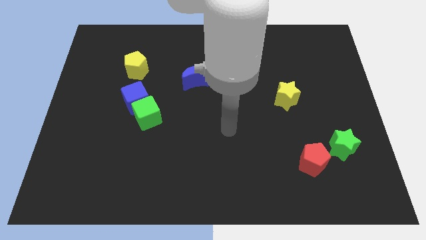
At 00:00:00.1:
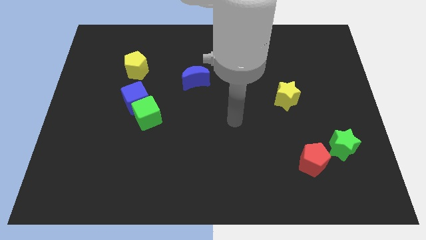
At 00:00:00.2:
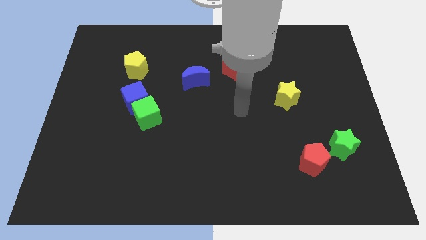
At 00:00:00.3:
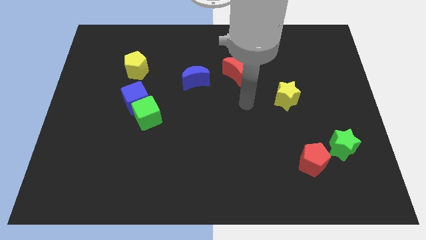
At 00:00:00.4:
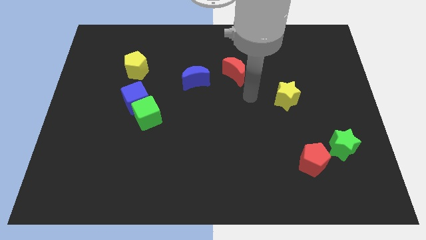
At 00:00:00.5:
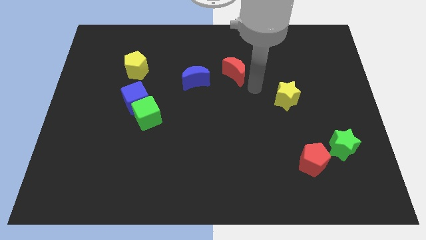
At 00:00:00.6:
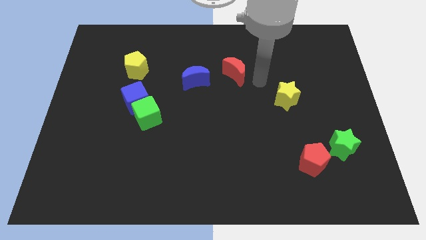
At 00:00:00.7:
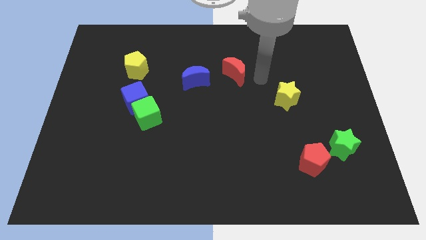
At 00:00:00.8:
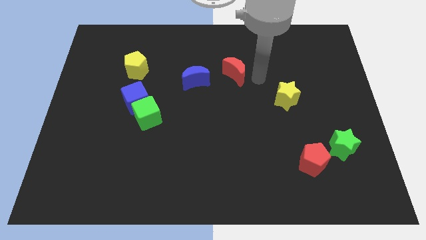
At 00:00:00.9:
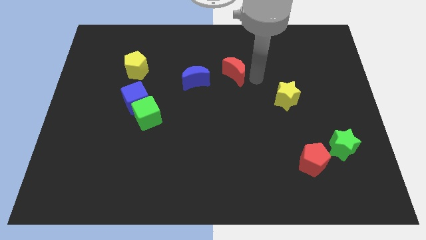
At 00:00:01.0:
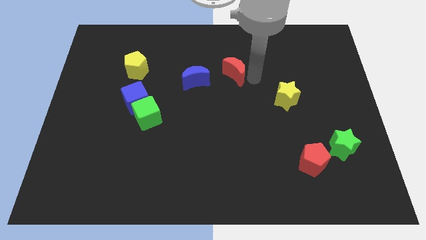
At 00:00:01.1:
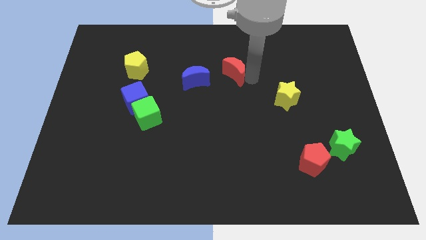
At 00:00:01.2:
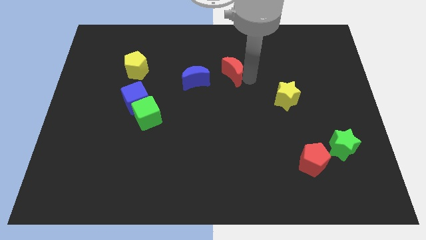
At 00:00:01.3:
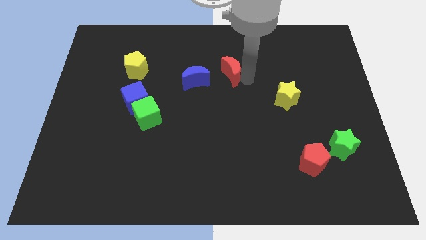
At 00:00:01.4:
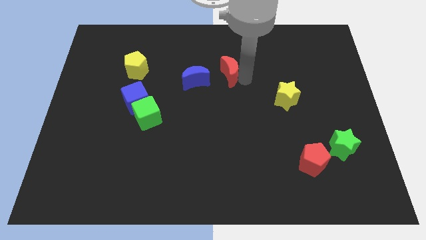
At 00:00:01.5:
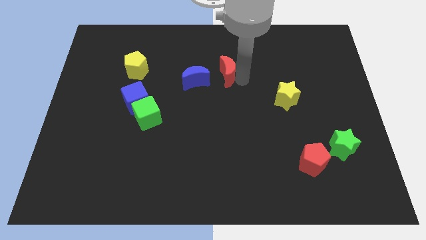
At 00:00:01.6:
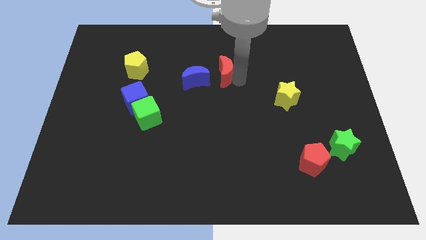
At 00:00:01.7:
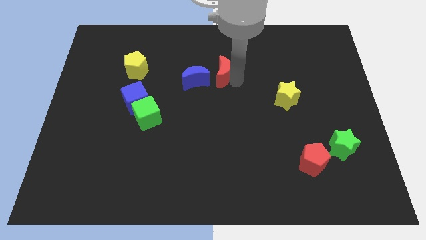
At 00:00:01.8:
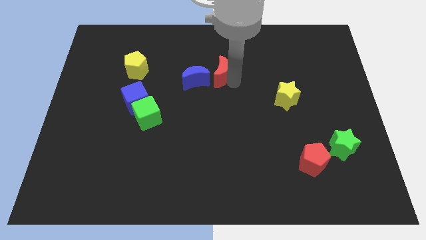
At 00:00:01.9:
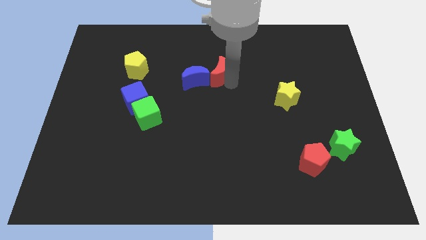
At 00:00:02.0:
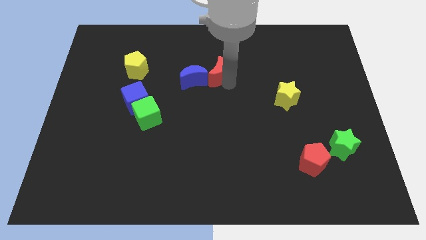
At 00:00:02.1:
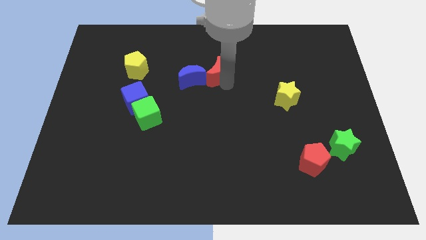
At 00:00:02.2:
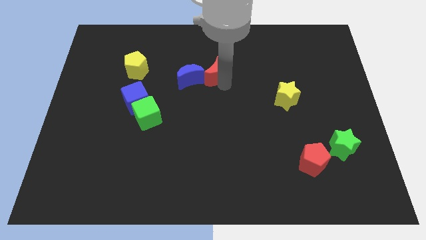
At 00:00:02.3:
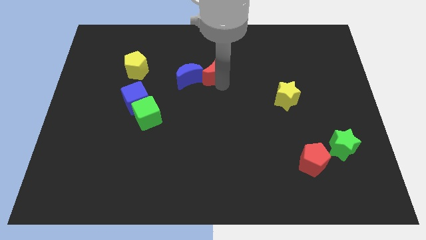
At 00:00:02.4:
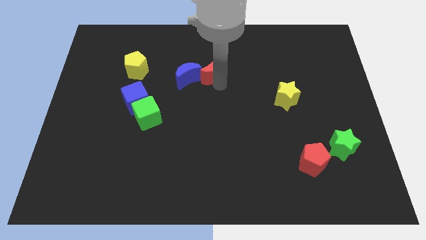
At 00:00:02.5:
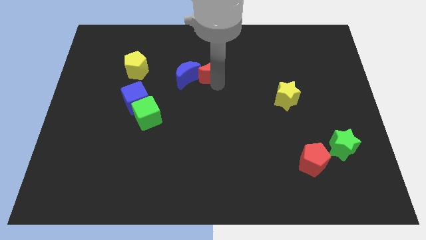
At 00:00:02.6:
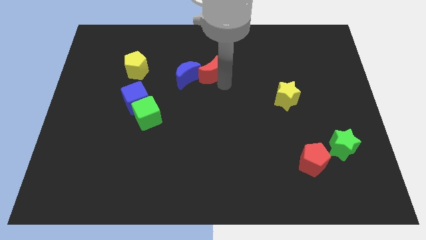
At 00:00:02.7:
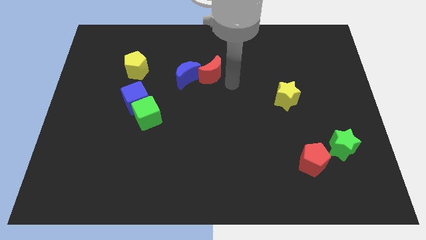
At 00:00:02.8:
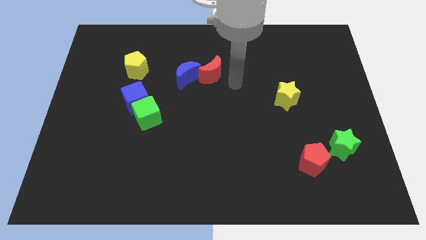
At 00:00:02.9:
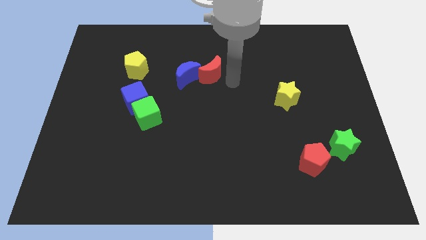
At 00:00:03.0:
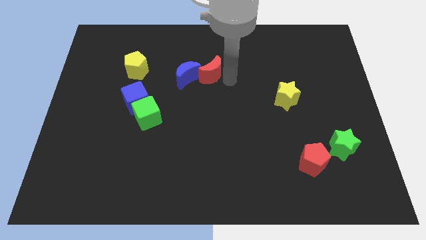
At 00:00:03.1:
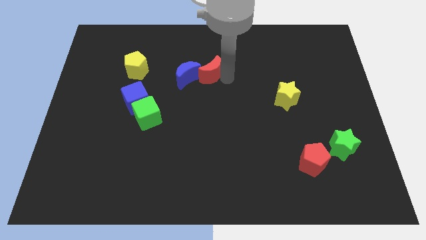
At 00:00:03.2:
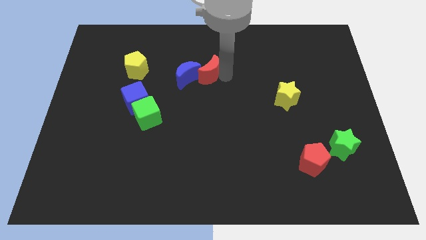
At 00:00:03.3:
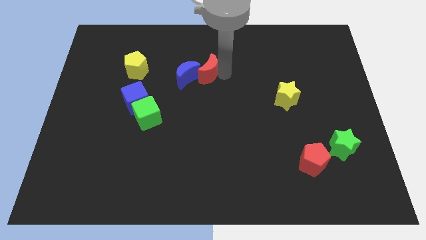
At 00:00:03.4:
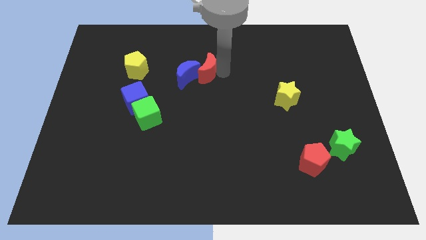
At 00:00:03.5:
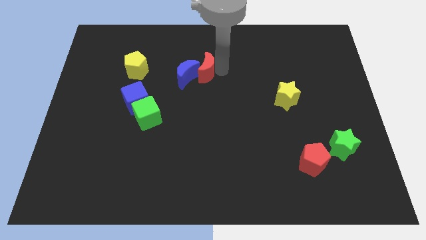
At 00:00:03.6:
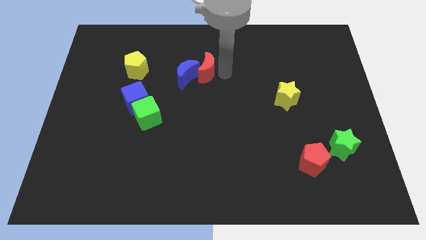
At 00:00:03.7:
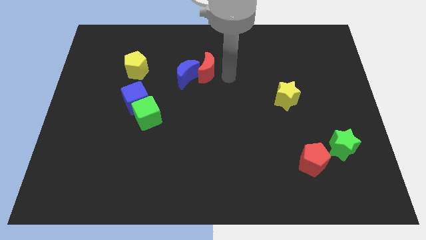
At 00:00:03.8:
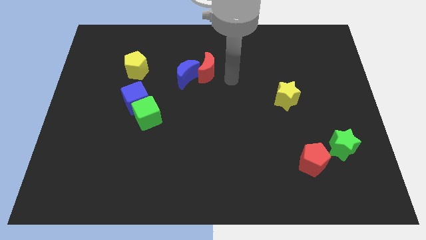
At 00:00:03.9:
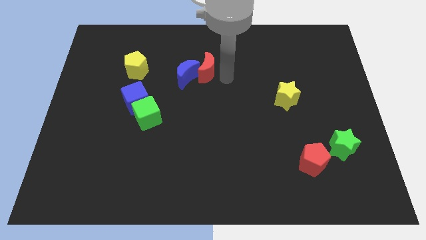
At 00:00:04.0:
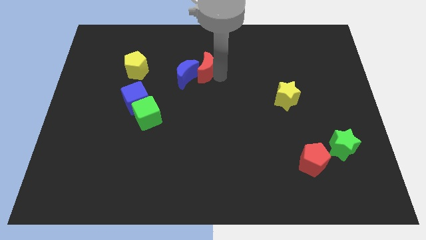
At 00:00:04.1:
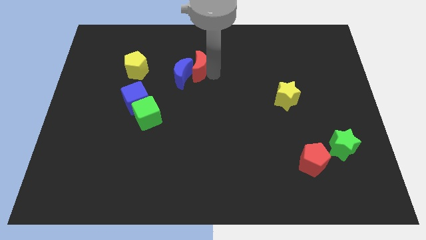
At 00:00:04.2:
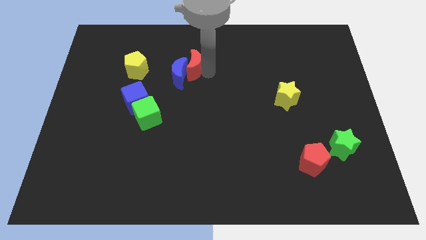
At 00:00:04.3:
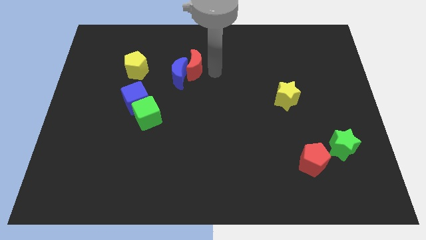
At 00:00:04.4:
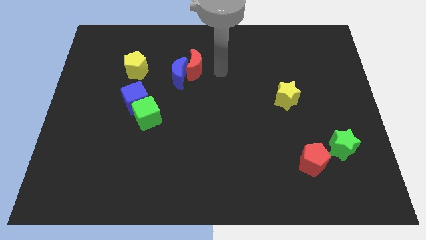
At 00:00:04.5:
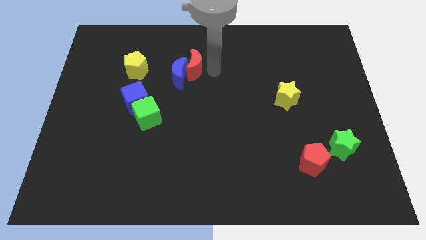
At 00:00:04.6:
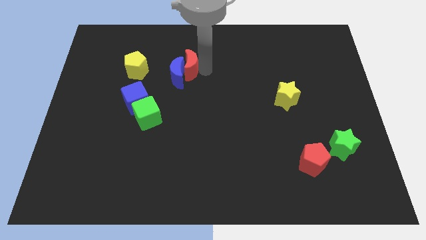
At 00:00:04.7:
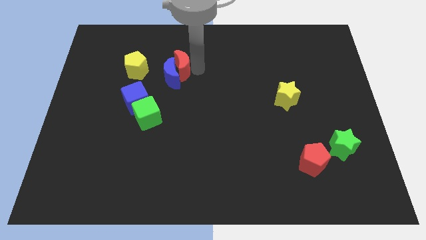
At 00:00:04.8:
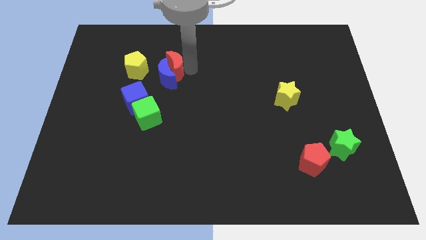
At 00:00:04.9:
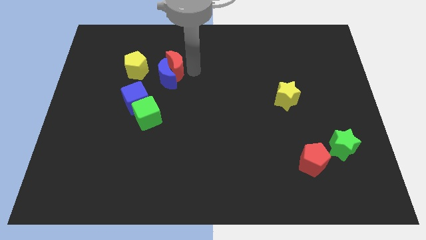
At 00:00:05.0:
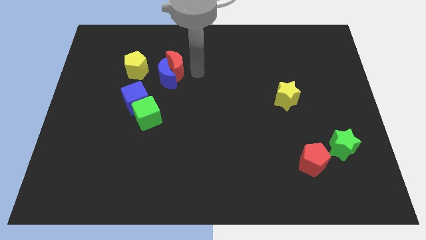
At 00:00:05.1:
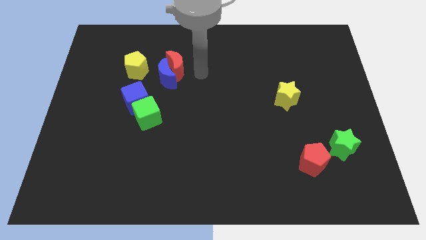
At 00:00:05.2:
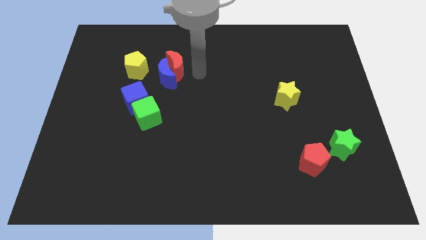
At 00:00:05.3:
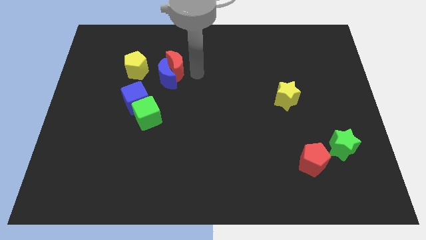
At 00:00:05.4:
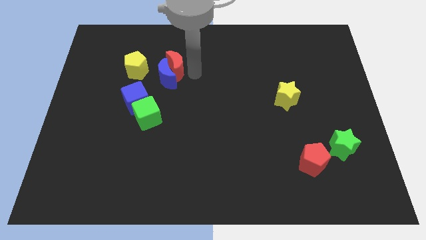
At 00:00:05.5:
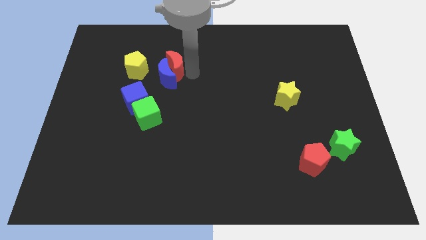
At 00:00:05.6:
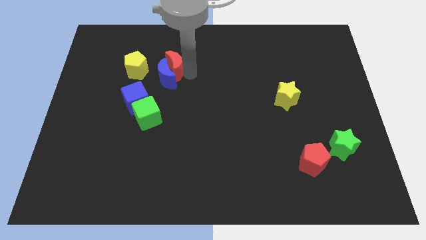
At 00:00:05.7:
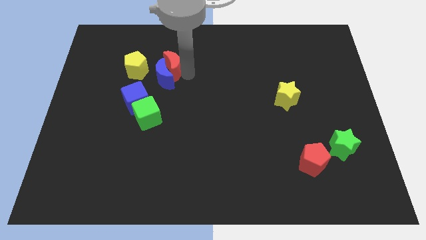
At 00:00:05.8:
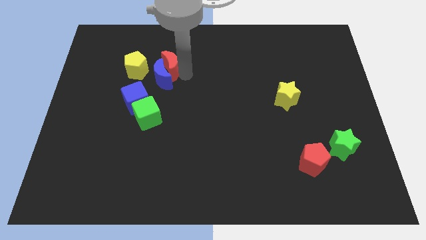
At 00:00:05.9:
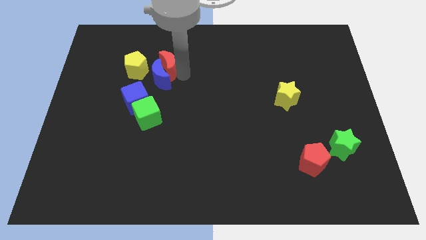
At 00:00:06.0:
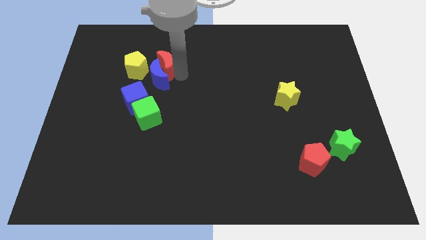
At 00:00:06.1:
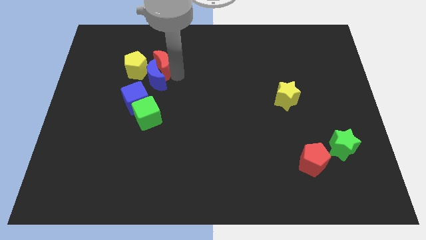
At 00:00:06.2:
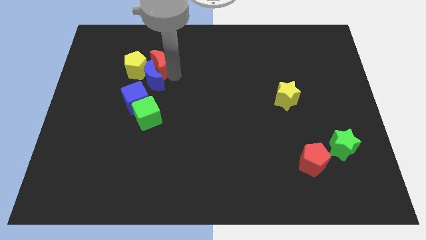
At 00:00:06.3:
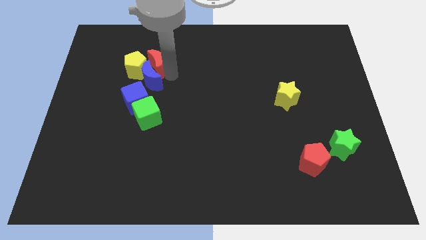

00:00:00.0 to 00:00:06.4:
put the red moon next to the yellow pentagon

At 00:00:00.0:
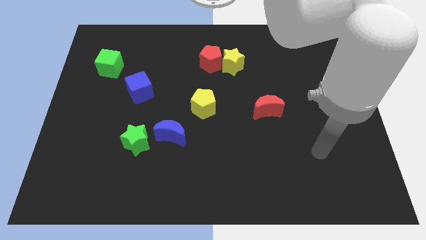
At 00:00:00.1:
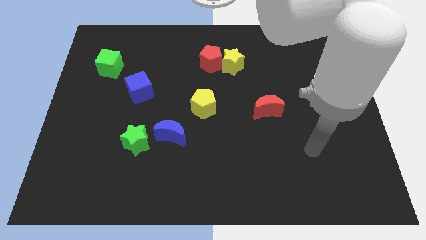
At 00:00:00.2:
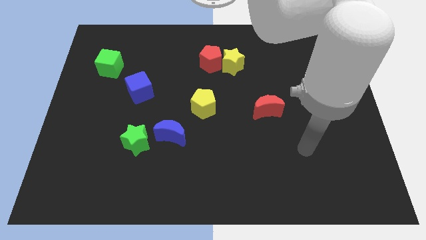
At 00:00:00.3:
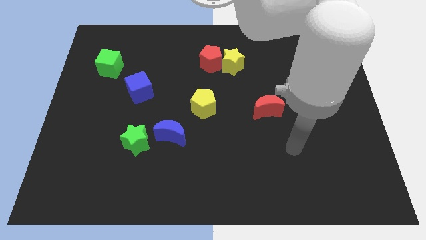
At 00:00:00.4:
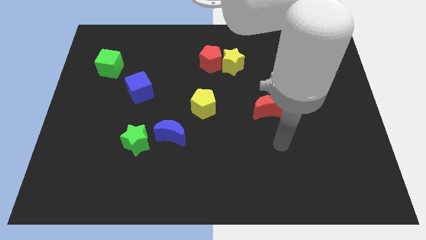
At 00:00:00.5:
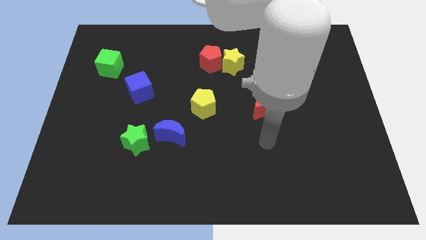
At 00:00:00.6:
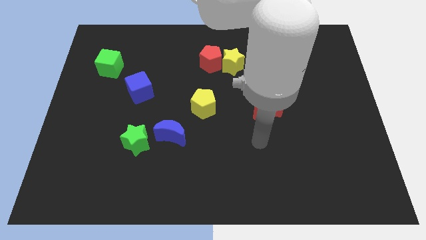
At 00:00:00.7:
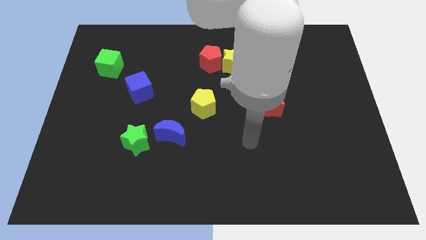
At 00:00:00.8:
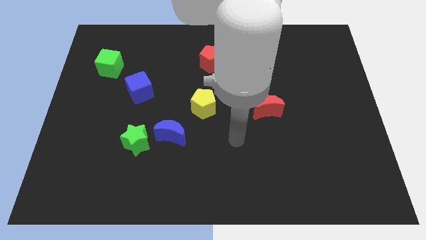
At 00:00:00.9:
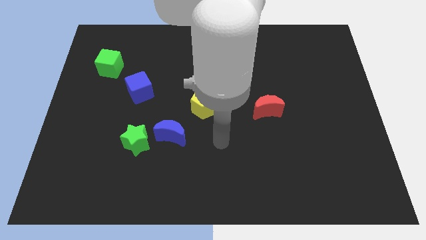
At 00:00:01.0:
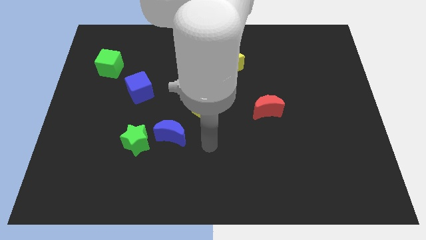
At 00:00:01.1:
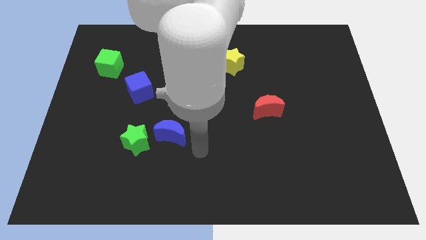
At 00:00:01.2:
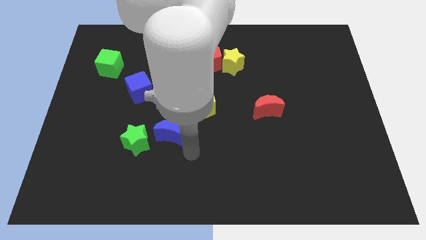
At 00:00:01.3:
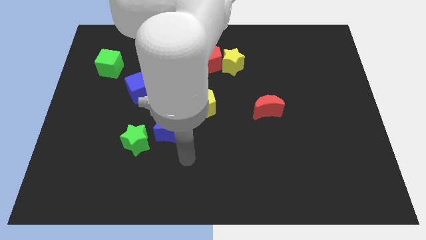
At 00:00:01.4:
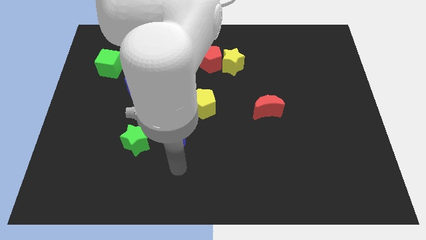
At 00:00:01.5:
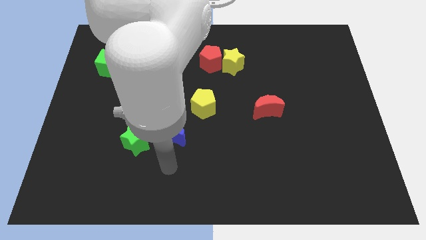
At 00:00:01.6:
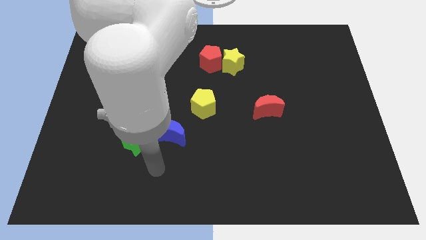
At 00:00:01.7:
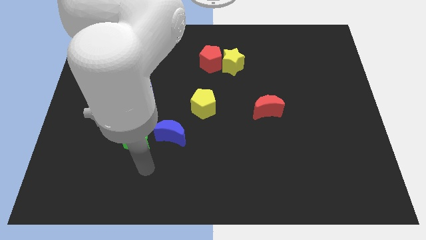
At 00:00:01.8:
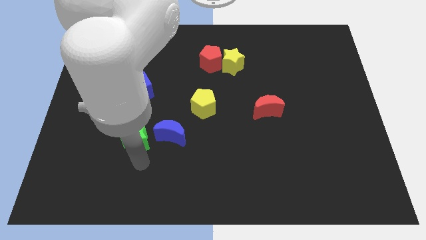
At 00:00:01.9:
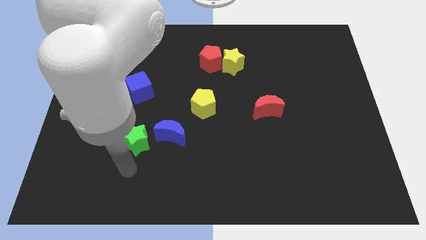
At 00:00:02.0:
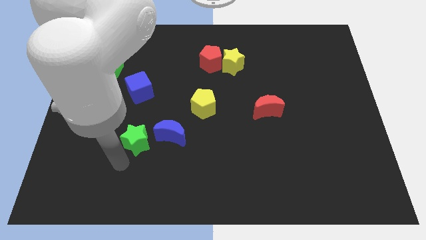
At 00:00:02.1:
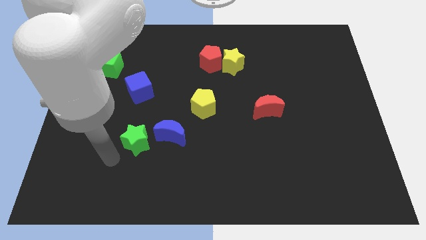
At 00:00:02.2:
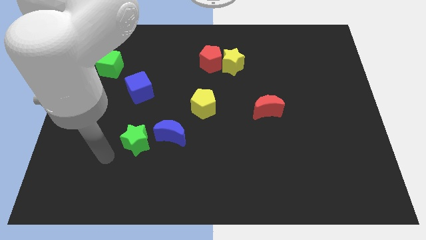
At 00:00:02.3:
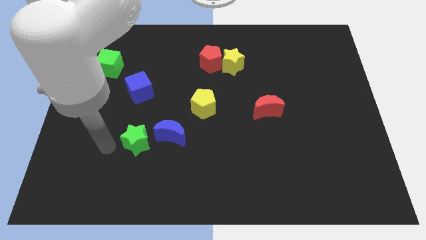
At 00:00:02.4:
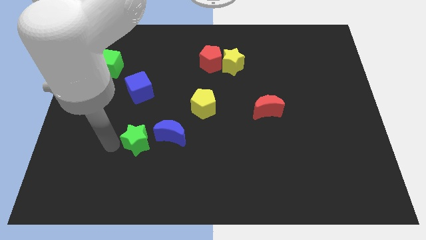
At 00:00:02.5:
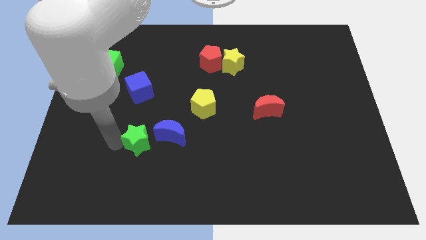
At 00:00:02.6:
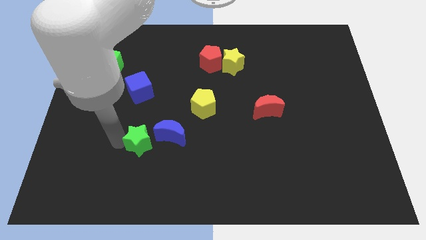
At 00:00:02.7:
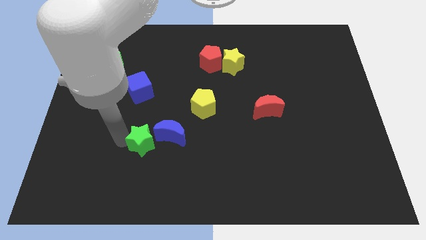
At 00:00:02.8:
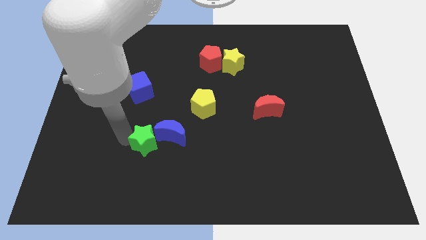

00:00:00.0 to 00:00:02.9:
slide the green star next to the blue moon
